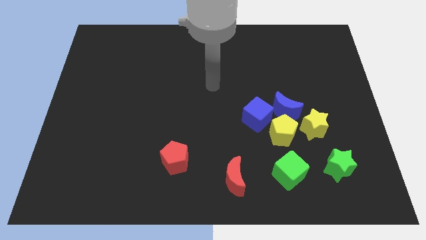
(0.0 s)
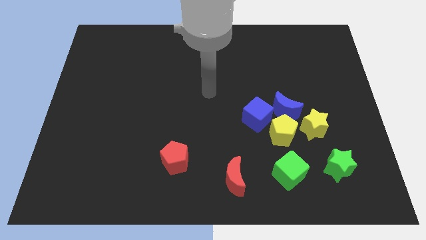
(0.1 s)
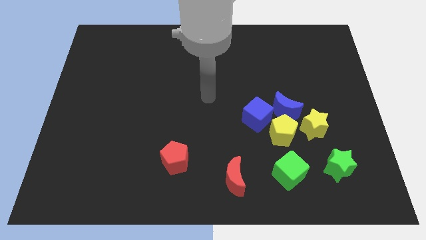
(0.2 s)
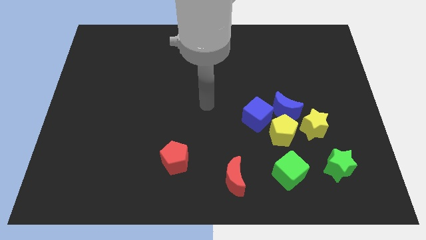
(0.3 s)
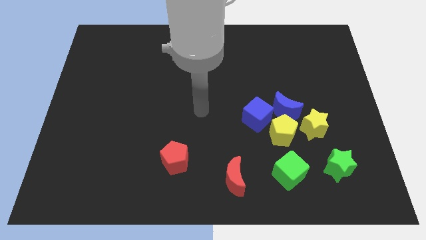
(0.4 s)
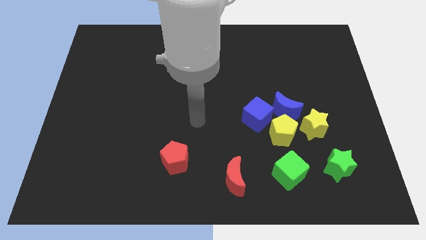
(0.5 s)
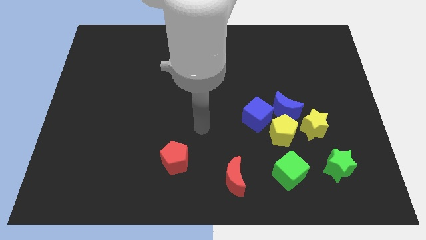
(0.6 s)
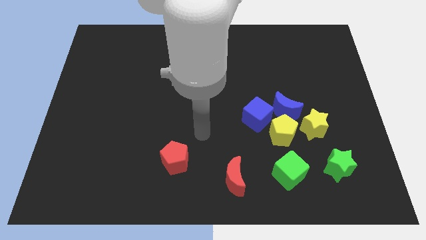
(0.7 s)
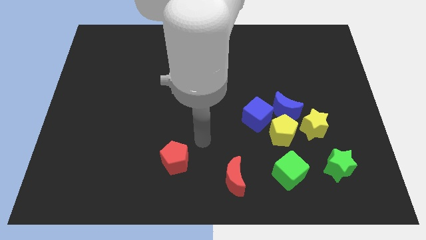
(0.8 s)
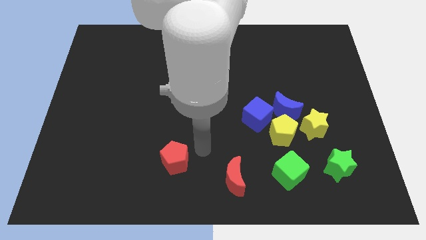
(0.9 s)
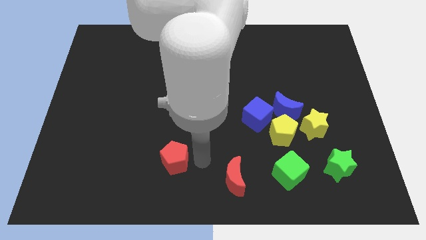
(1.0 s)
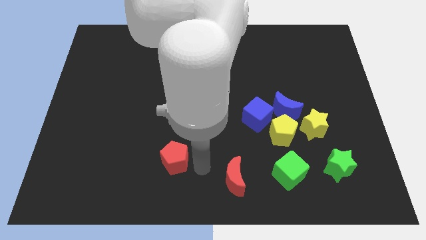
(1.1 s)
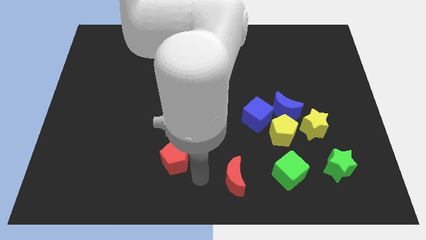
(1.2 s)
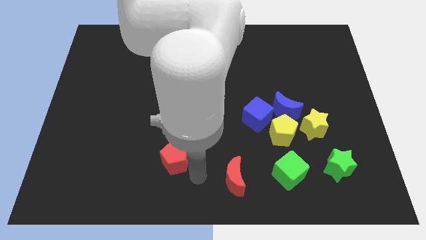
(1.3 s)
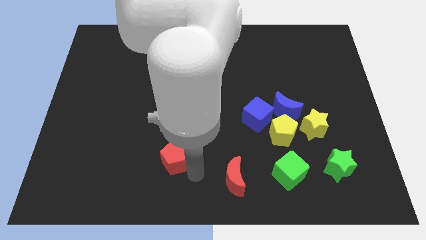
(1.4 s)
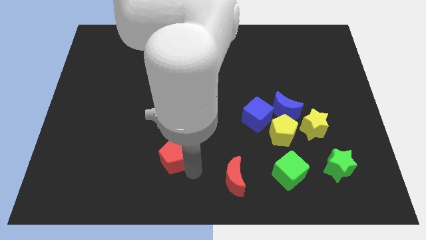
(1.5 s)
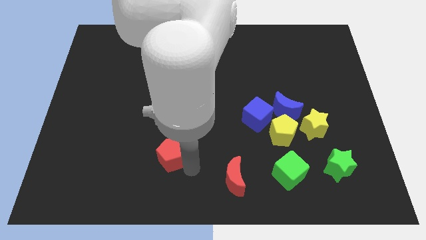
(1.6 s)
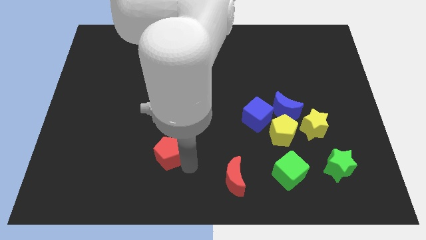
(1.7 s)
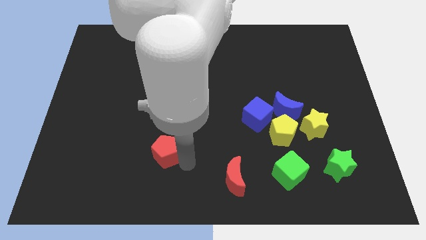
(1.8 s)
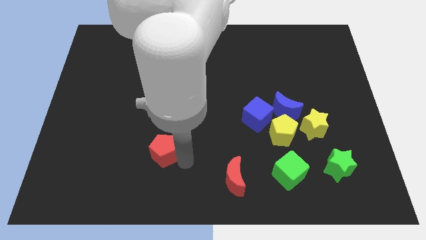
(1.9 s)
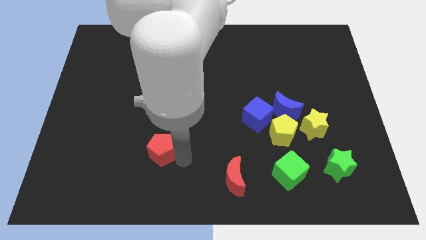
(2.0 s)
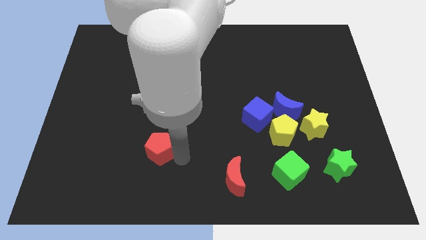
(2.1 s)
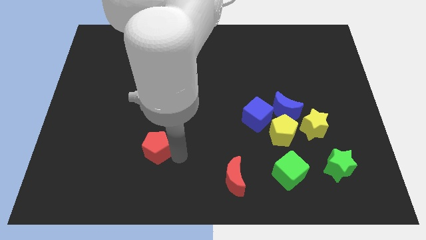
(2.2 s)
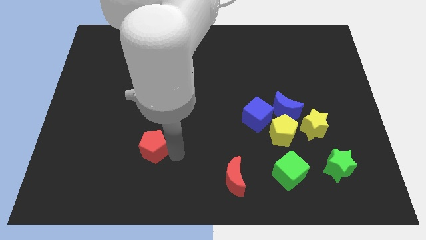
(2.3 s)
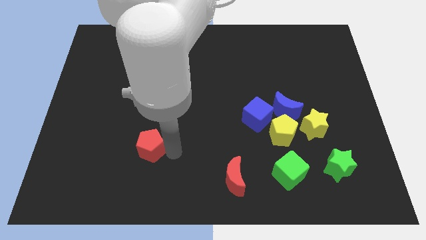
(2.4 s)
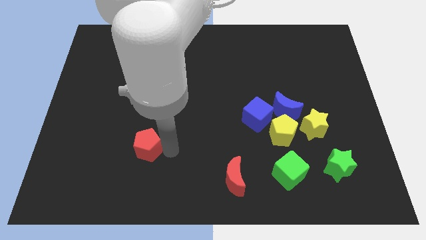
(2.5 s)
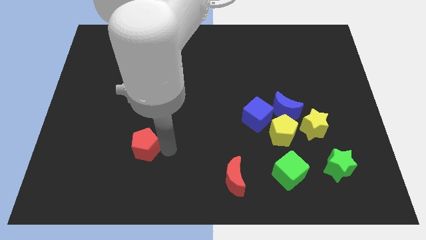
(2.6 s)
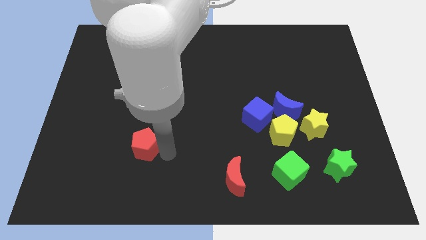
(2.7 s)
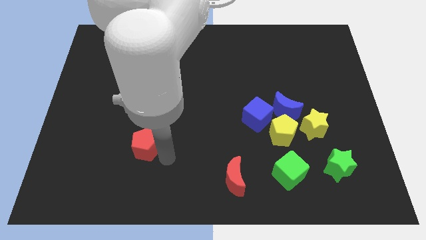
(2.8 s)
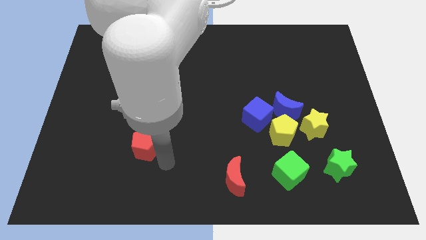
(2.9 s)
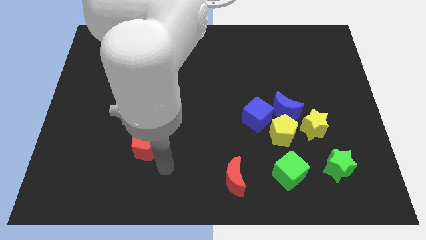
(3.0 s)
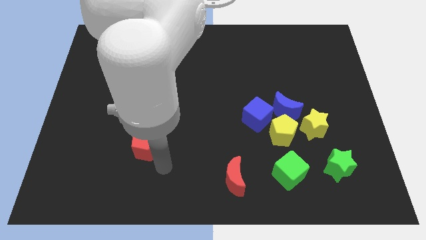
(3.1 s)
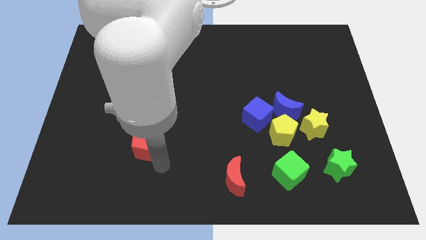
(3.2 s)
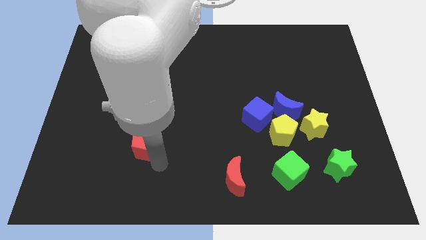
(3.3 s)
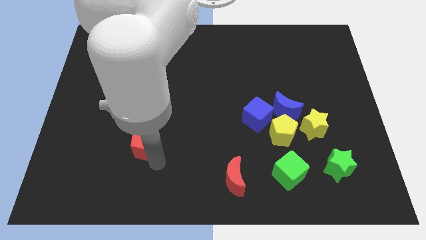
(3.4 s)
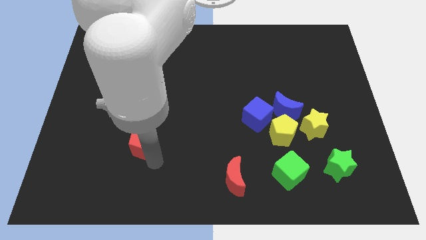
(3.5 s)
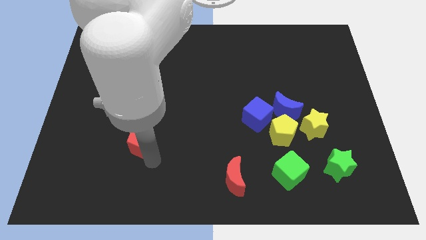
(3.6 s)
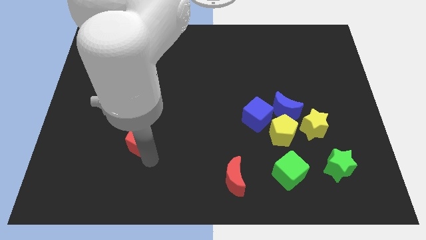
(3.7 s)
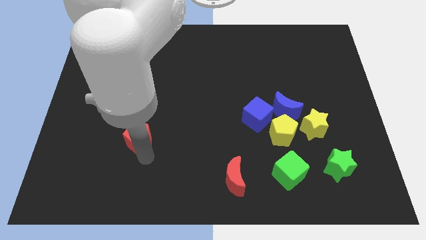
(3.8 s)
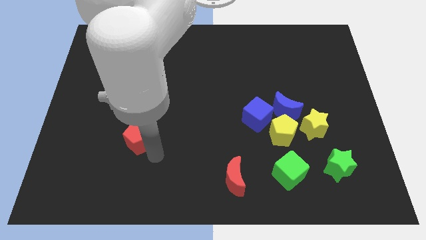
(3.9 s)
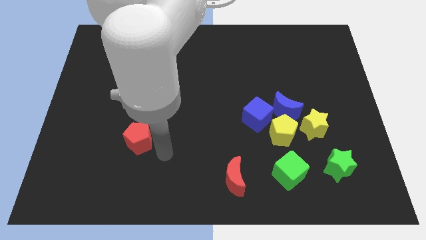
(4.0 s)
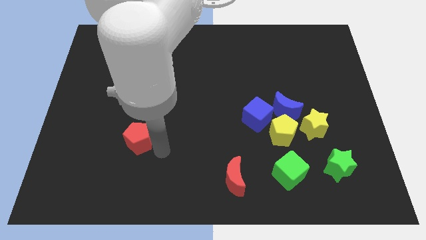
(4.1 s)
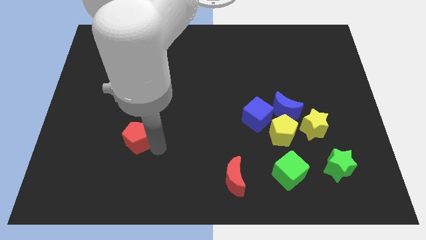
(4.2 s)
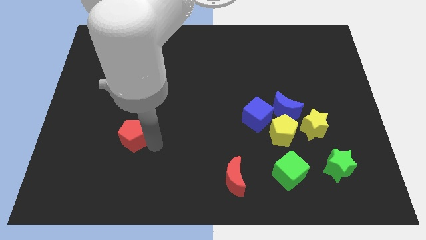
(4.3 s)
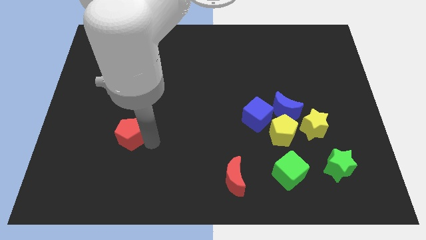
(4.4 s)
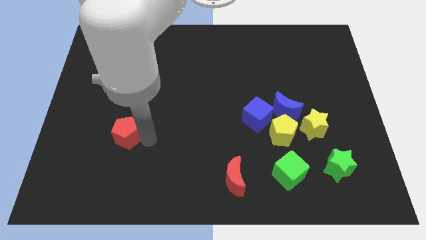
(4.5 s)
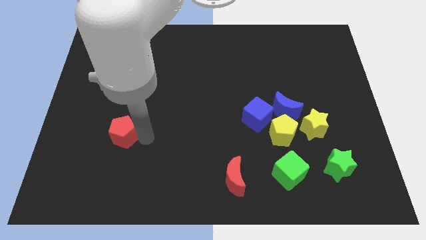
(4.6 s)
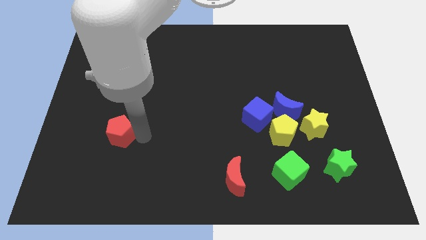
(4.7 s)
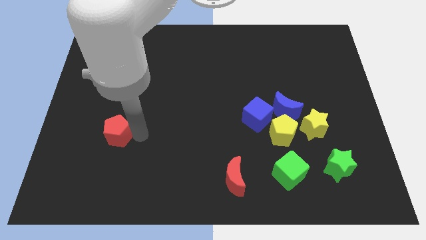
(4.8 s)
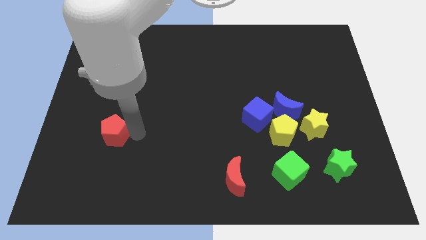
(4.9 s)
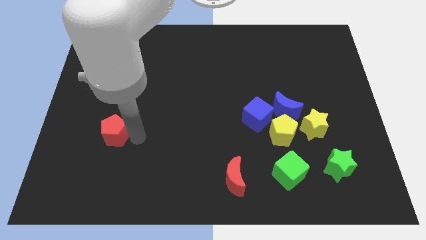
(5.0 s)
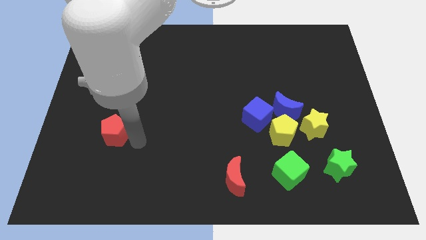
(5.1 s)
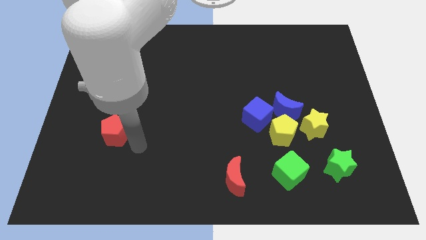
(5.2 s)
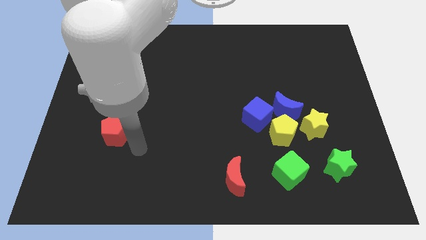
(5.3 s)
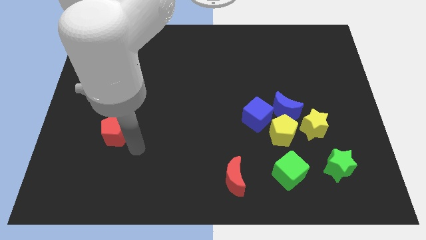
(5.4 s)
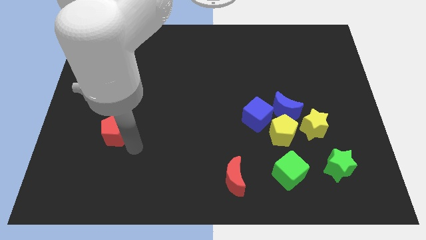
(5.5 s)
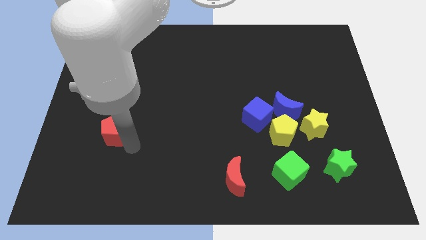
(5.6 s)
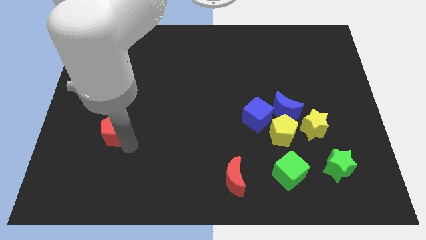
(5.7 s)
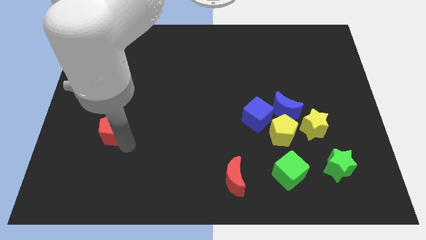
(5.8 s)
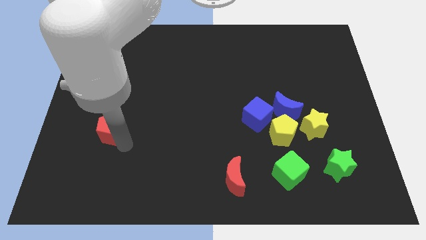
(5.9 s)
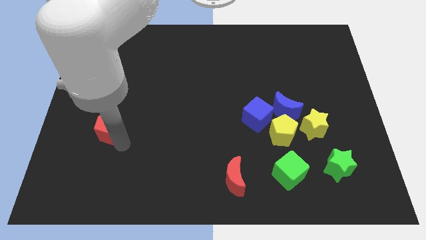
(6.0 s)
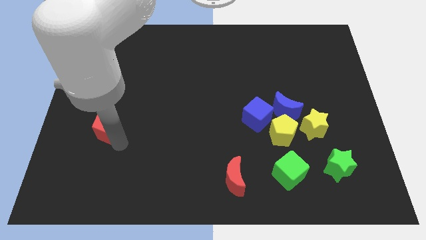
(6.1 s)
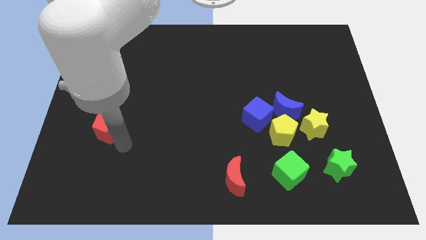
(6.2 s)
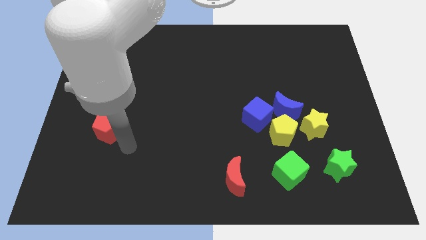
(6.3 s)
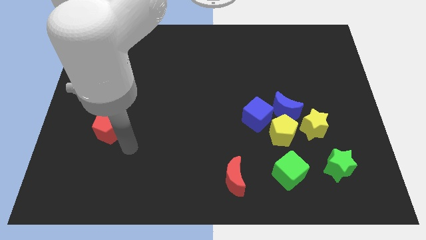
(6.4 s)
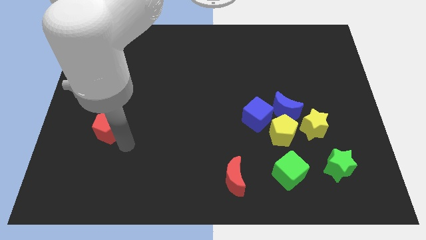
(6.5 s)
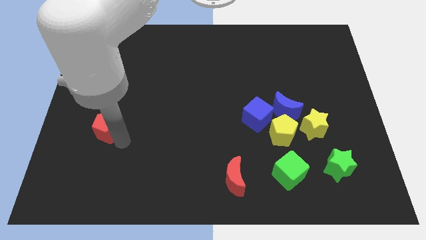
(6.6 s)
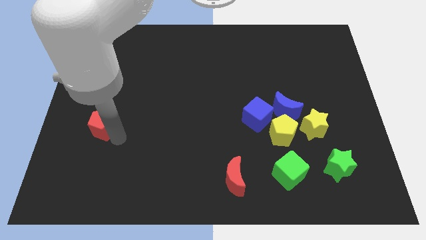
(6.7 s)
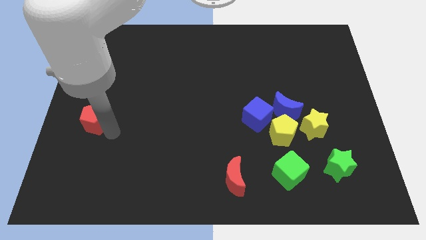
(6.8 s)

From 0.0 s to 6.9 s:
slide the red pentagon to the left side of the board

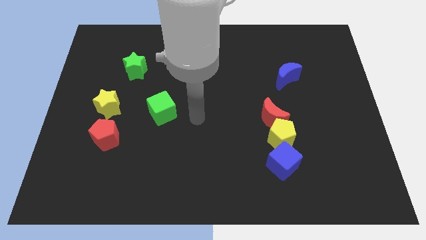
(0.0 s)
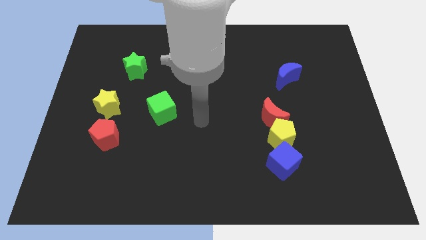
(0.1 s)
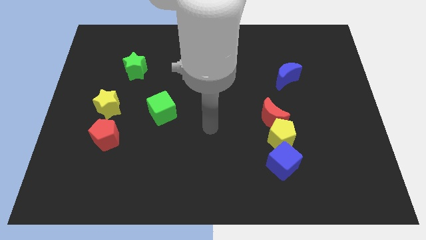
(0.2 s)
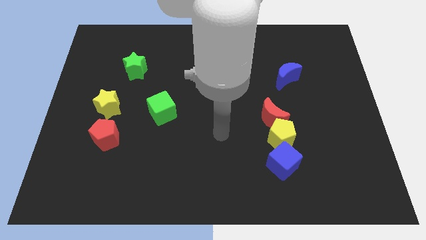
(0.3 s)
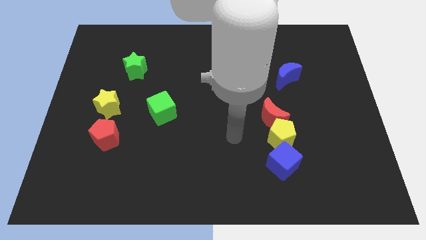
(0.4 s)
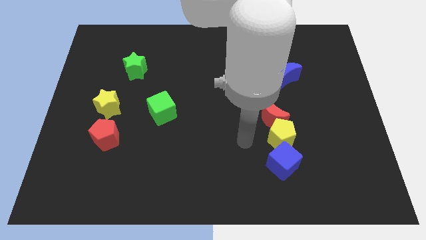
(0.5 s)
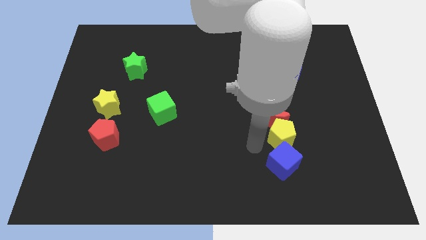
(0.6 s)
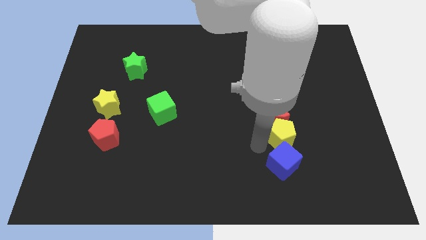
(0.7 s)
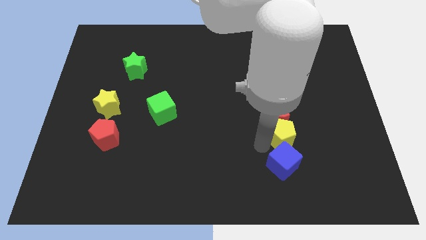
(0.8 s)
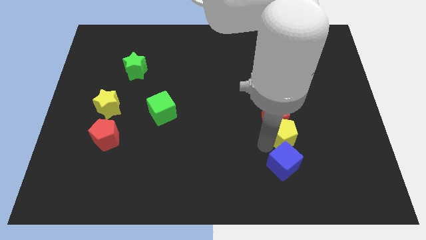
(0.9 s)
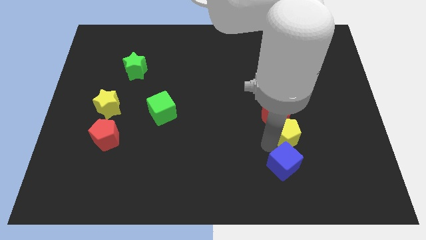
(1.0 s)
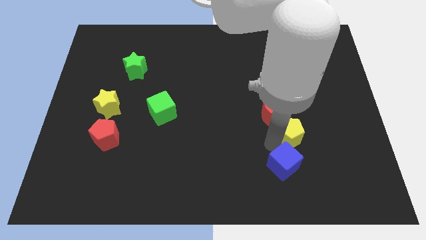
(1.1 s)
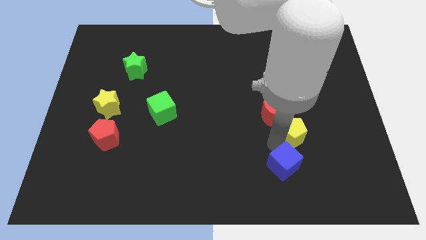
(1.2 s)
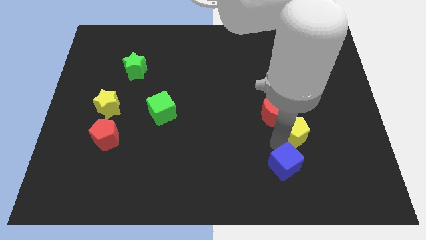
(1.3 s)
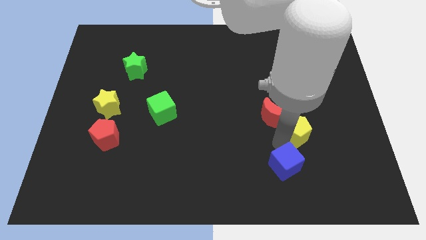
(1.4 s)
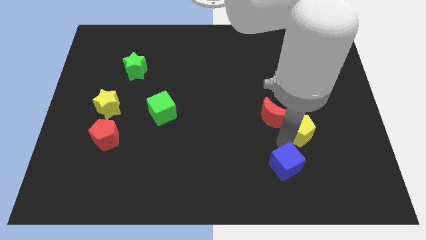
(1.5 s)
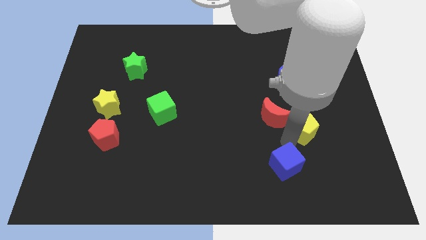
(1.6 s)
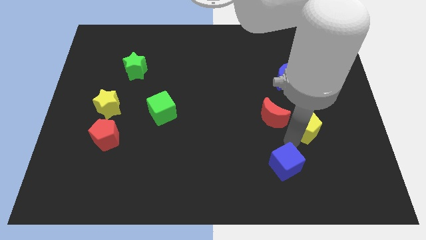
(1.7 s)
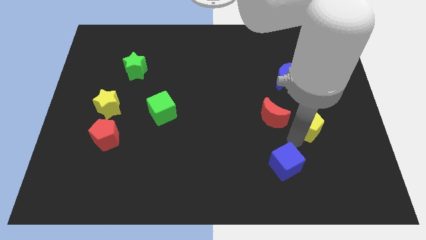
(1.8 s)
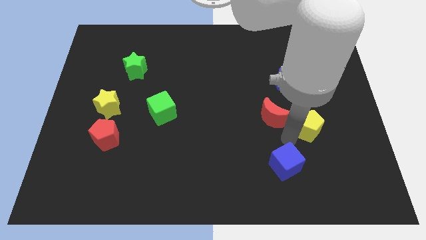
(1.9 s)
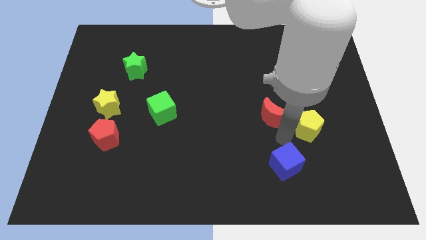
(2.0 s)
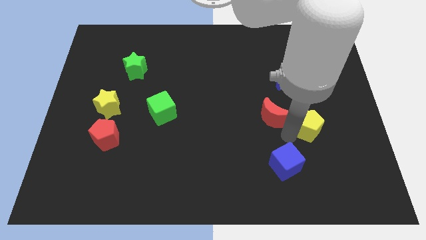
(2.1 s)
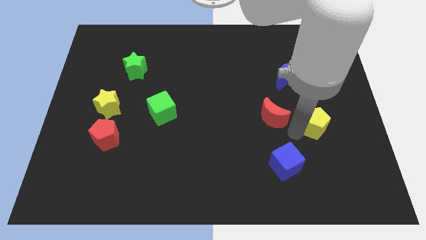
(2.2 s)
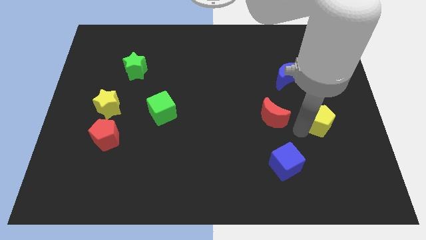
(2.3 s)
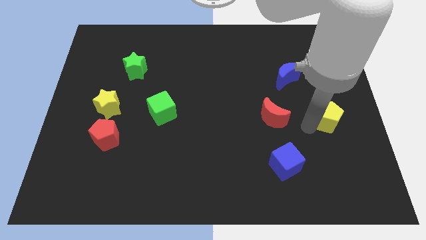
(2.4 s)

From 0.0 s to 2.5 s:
push the yellow pentagon to the right side of the board
